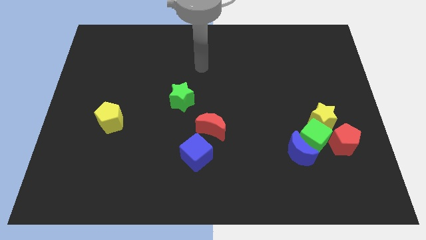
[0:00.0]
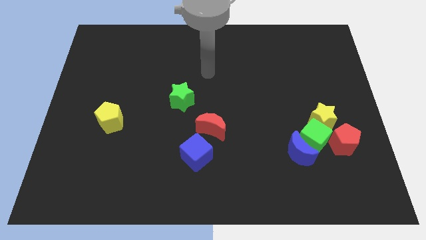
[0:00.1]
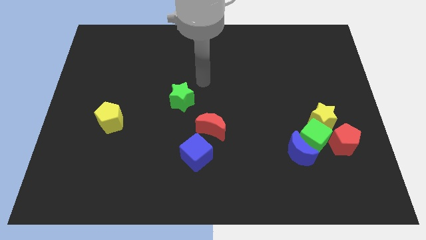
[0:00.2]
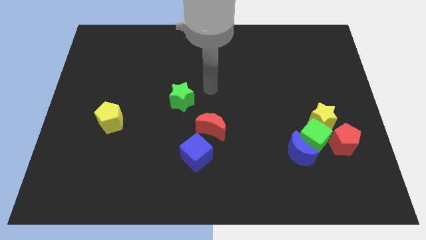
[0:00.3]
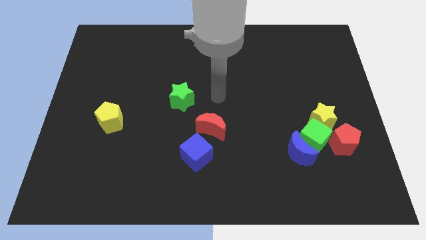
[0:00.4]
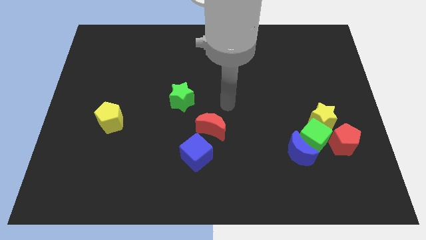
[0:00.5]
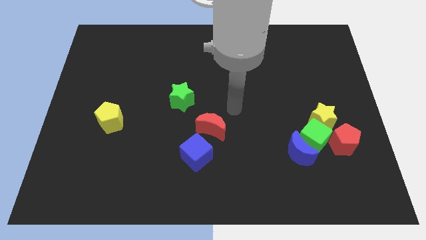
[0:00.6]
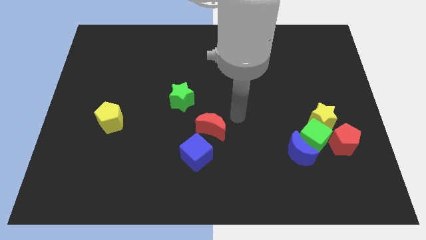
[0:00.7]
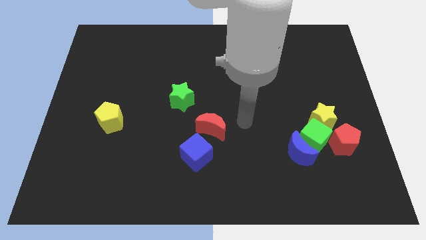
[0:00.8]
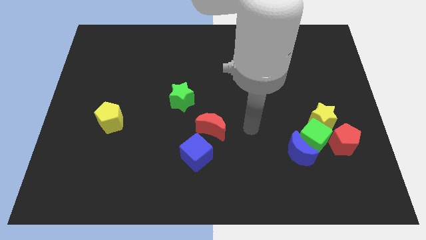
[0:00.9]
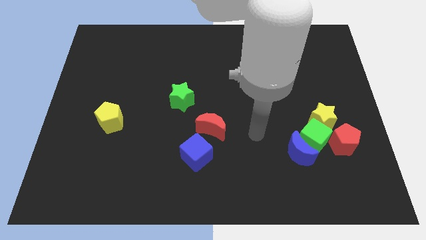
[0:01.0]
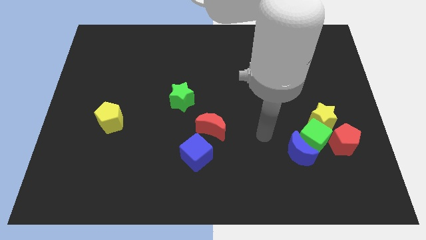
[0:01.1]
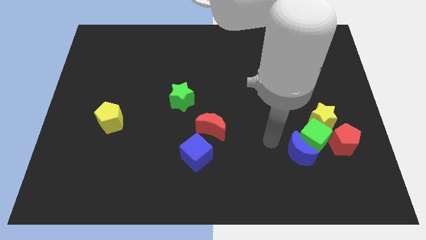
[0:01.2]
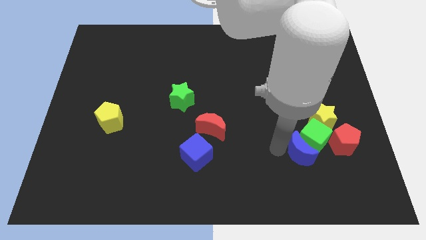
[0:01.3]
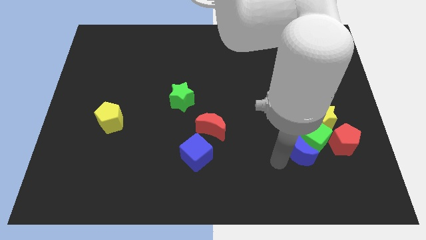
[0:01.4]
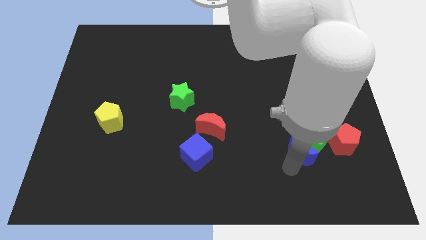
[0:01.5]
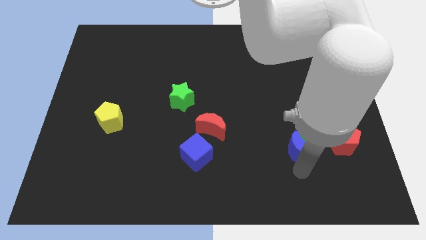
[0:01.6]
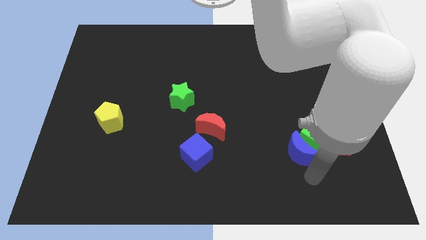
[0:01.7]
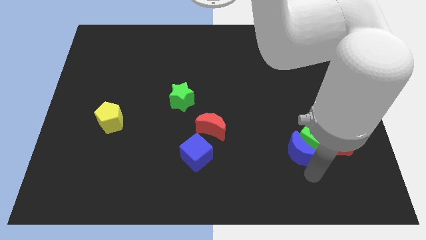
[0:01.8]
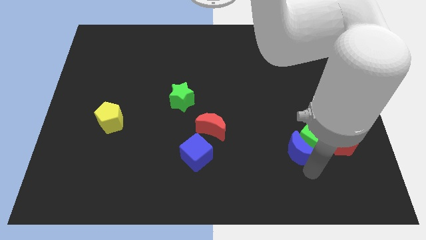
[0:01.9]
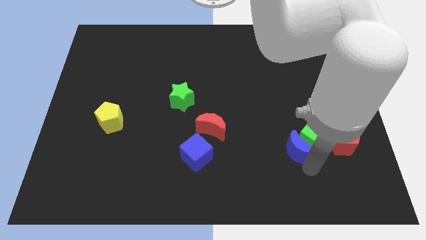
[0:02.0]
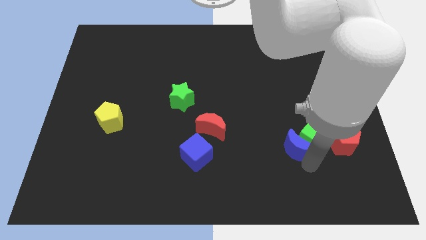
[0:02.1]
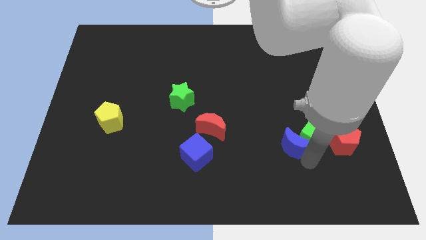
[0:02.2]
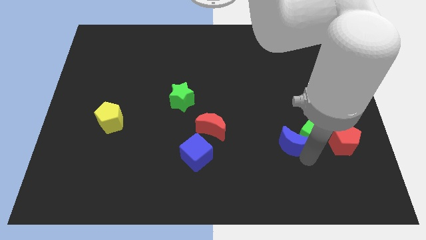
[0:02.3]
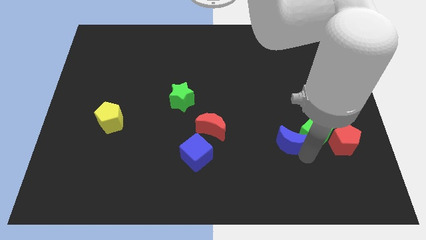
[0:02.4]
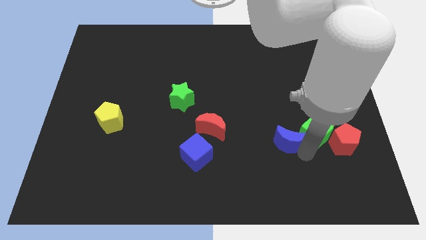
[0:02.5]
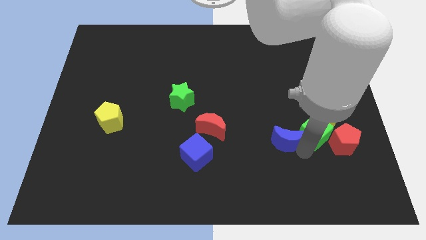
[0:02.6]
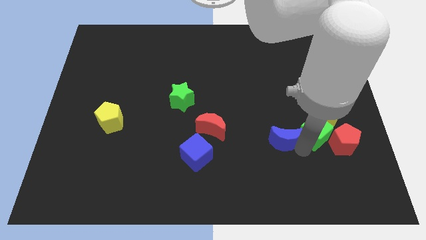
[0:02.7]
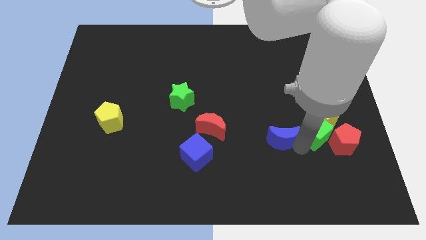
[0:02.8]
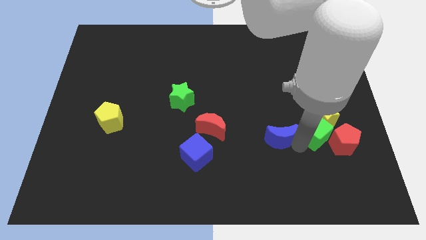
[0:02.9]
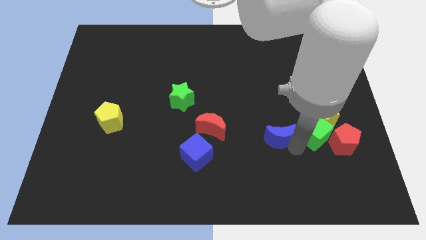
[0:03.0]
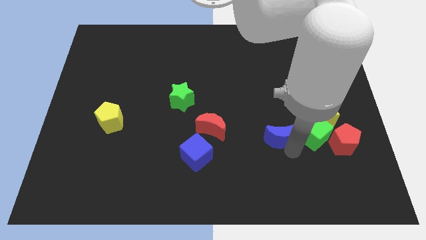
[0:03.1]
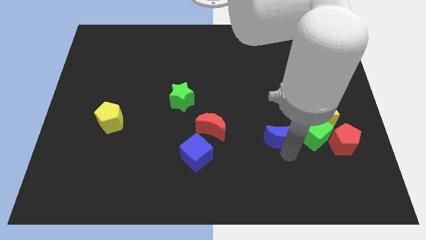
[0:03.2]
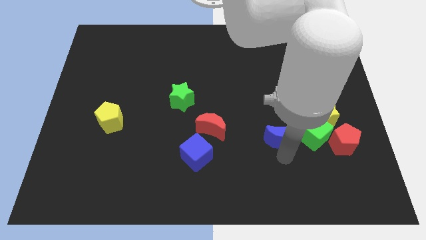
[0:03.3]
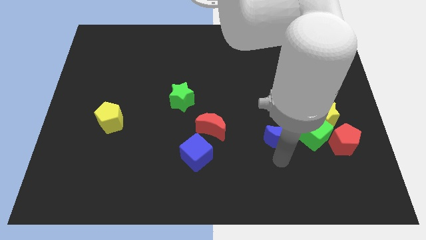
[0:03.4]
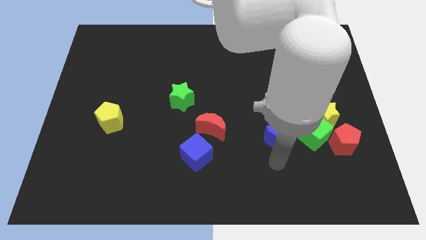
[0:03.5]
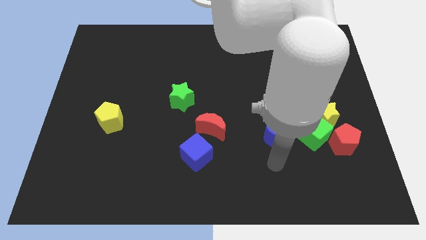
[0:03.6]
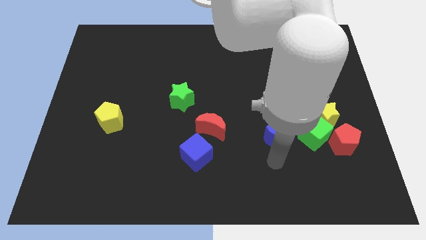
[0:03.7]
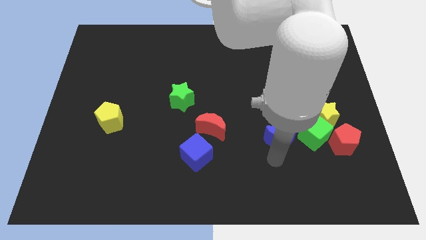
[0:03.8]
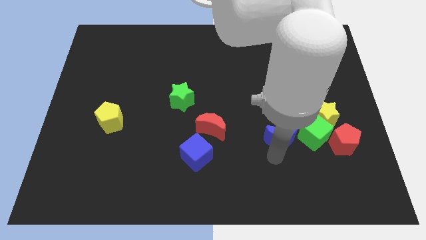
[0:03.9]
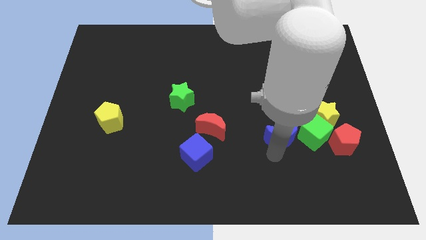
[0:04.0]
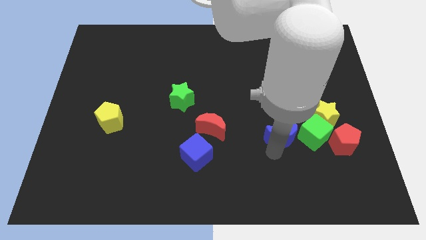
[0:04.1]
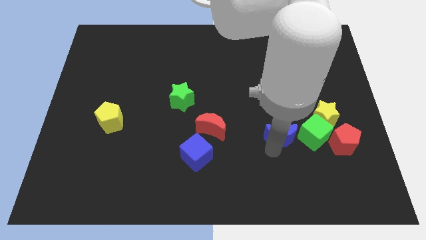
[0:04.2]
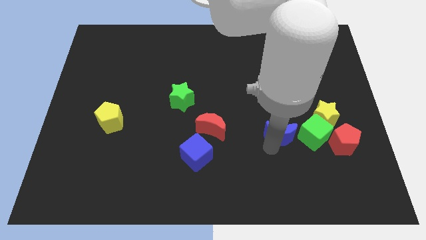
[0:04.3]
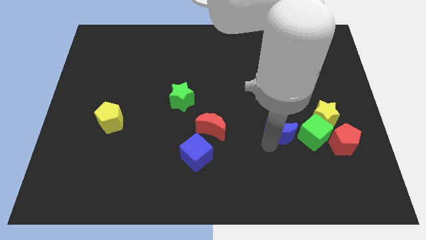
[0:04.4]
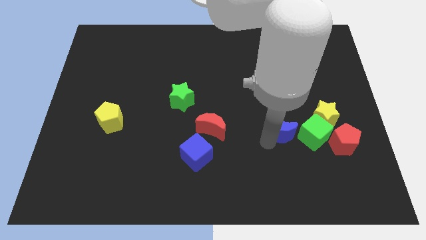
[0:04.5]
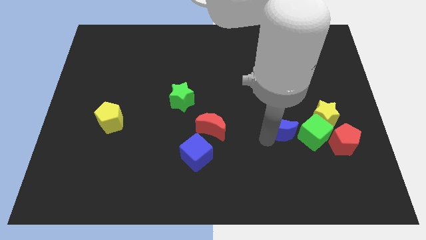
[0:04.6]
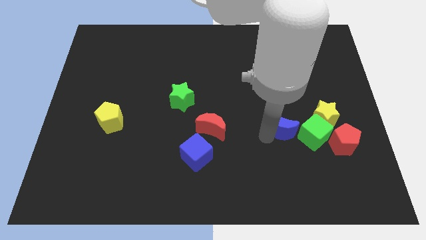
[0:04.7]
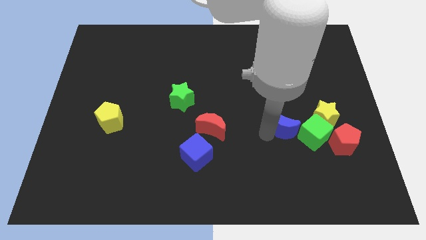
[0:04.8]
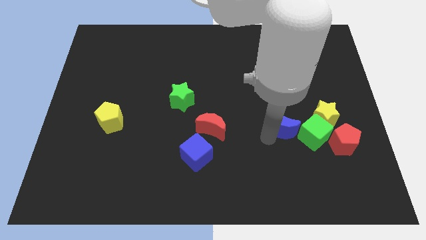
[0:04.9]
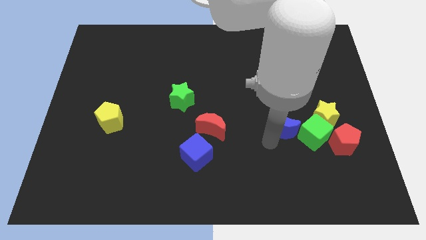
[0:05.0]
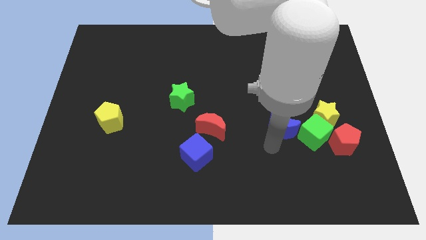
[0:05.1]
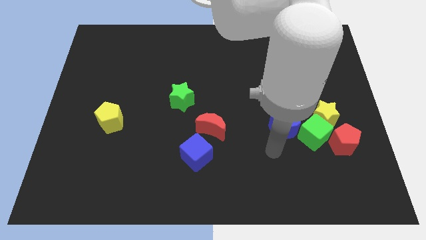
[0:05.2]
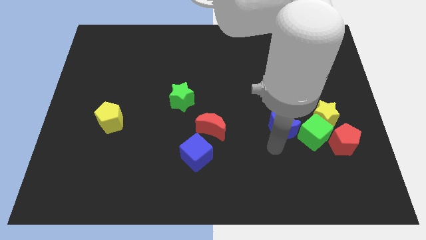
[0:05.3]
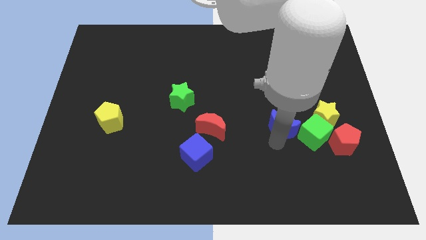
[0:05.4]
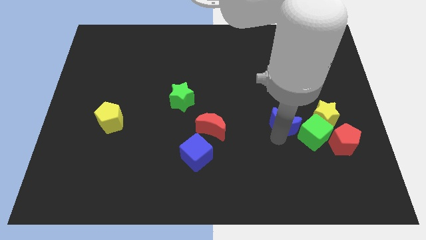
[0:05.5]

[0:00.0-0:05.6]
slightly slide the blue moon upwards

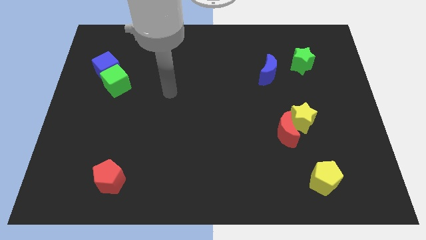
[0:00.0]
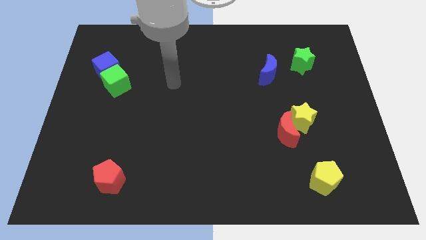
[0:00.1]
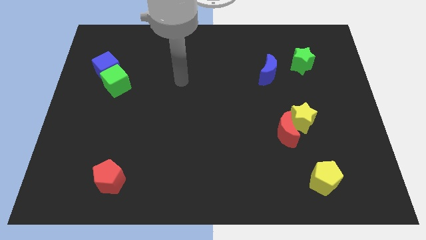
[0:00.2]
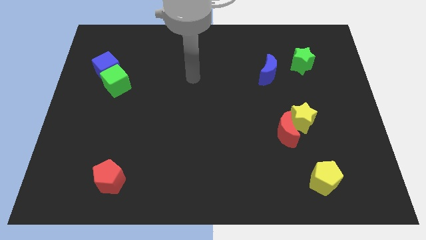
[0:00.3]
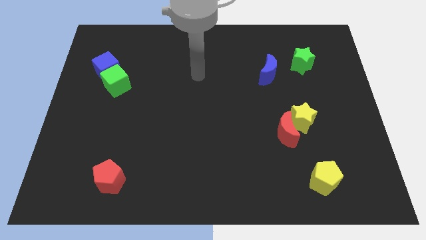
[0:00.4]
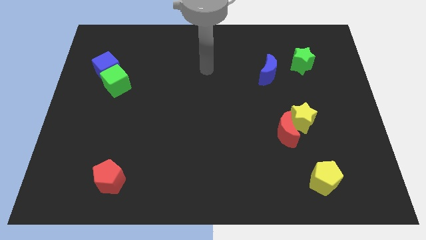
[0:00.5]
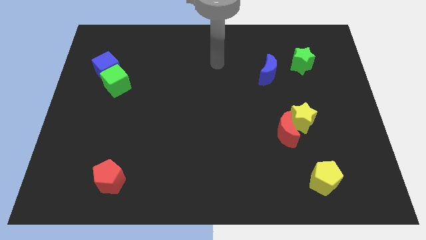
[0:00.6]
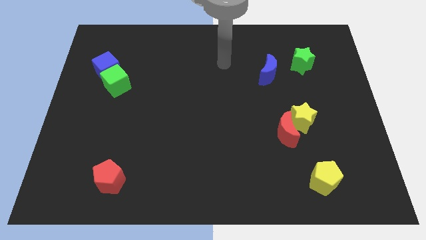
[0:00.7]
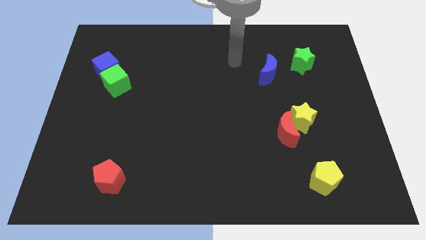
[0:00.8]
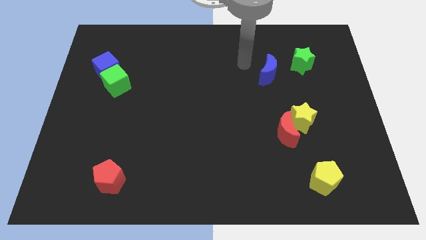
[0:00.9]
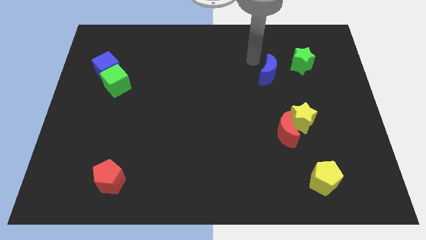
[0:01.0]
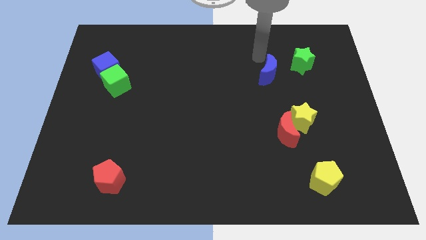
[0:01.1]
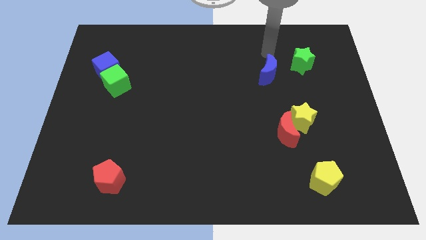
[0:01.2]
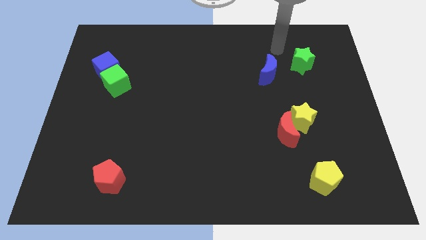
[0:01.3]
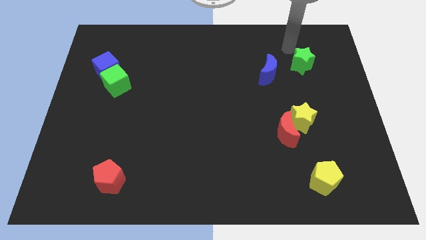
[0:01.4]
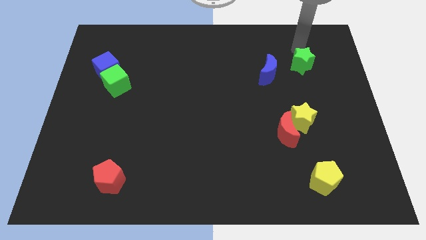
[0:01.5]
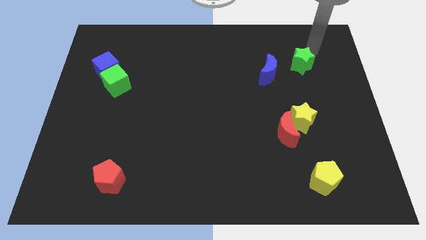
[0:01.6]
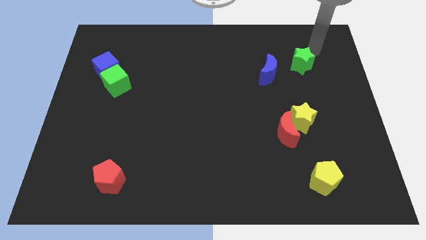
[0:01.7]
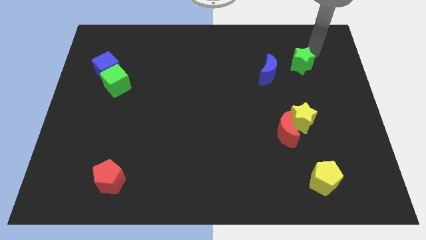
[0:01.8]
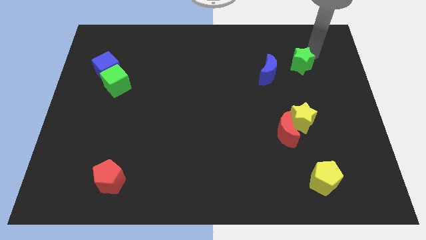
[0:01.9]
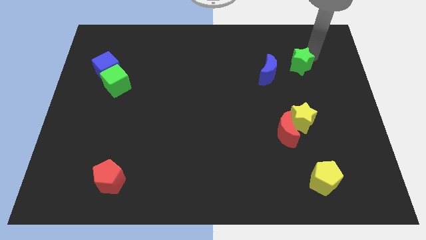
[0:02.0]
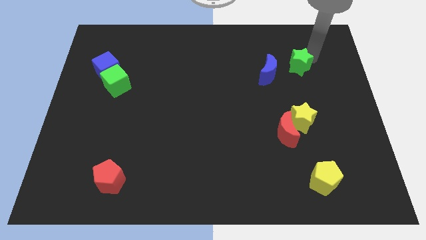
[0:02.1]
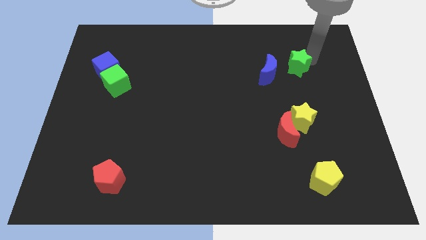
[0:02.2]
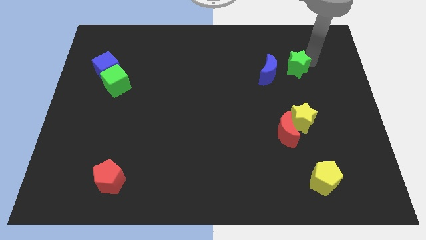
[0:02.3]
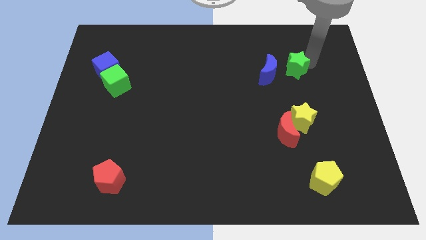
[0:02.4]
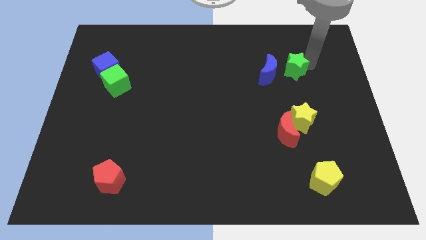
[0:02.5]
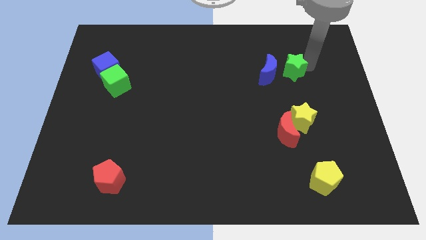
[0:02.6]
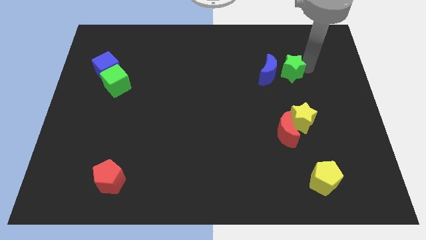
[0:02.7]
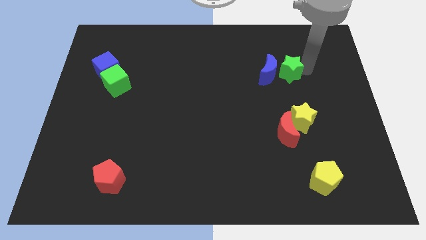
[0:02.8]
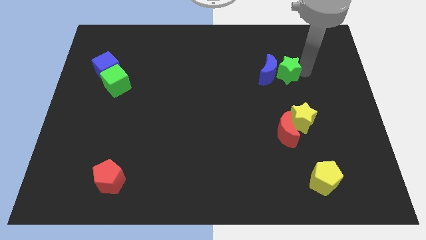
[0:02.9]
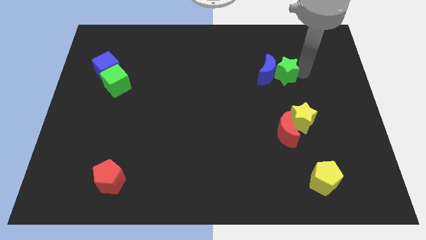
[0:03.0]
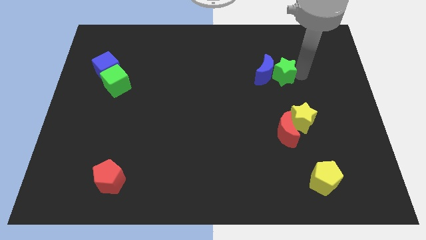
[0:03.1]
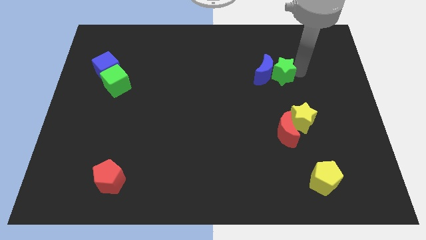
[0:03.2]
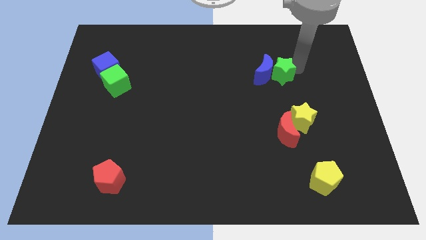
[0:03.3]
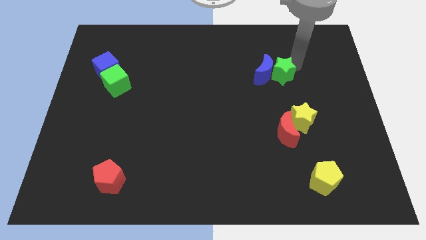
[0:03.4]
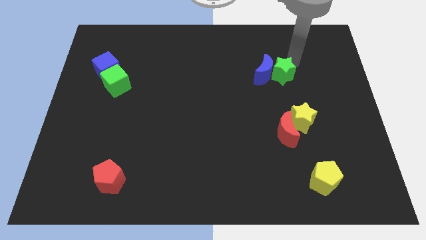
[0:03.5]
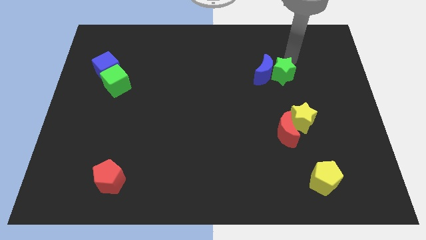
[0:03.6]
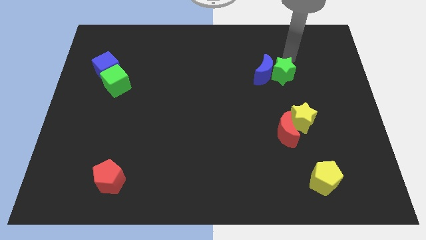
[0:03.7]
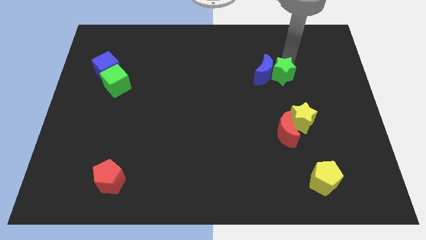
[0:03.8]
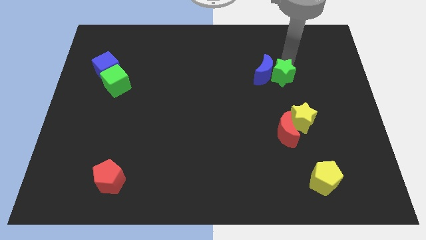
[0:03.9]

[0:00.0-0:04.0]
slide the green star a little bit downwards and to the left
